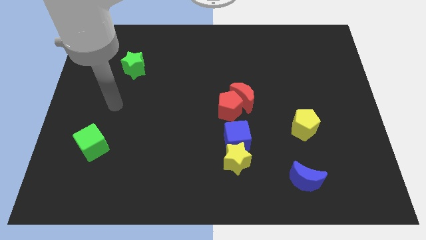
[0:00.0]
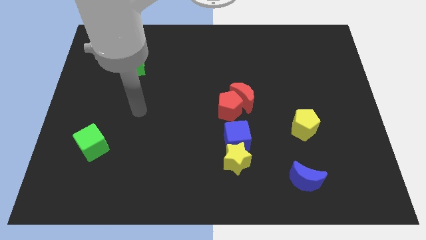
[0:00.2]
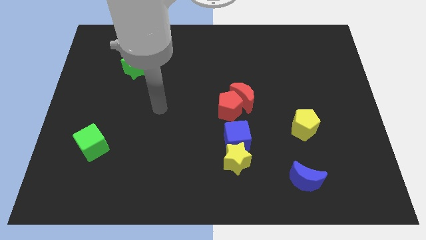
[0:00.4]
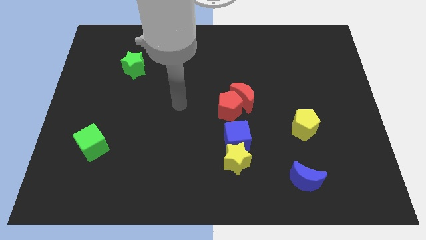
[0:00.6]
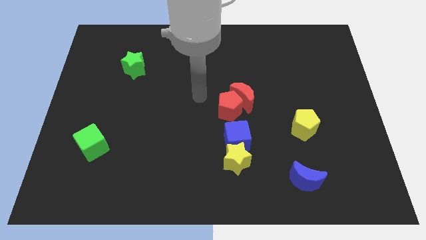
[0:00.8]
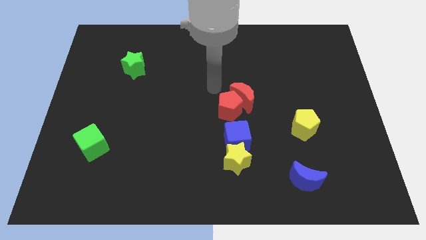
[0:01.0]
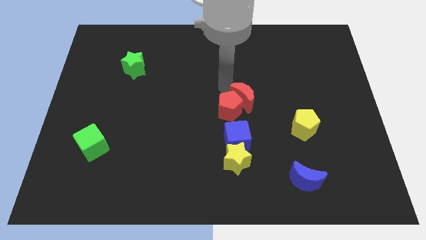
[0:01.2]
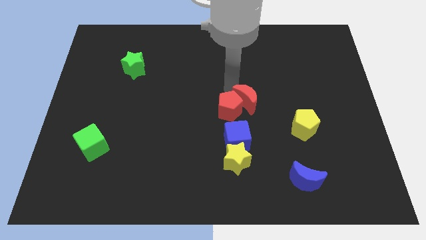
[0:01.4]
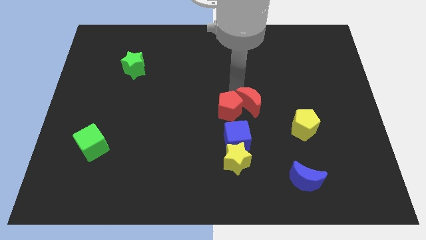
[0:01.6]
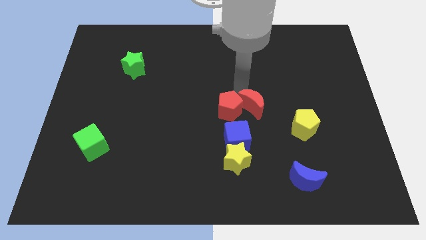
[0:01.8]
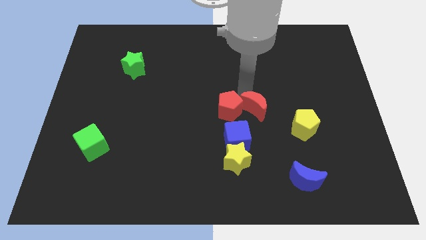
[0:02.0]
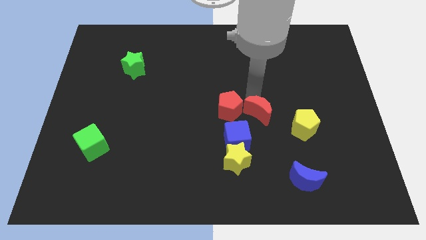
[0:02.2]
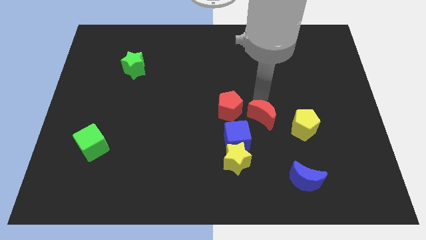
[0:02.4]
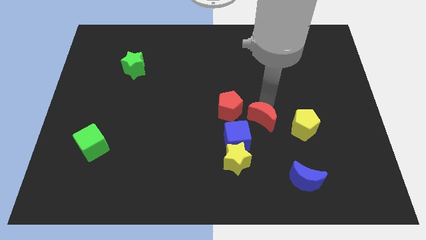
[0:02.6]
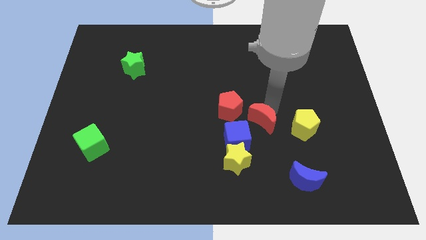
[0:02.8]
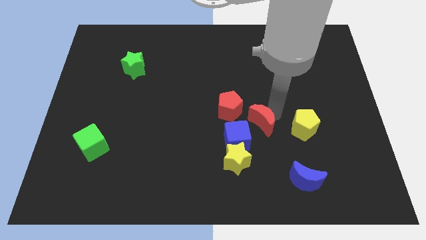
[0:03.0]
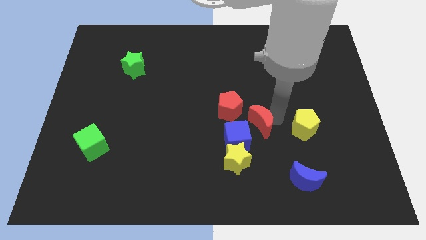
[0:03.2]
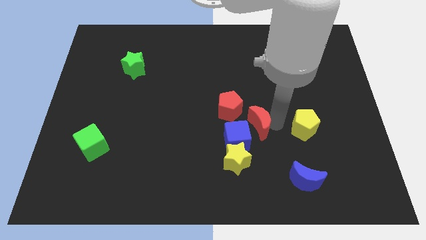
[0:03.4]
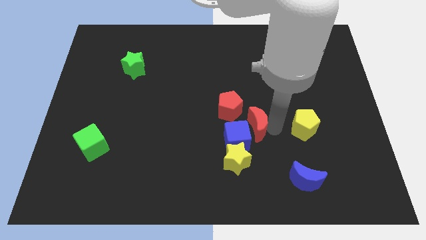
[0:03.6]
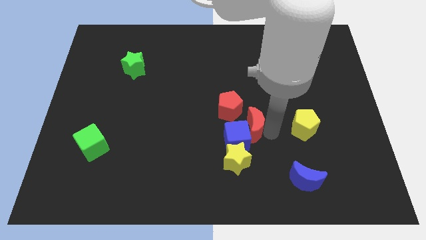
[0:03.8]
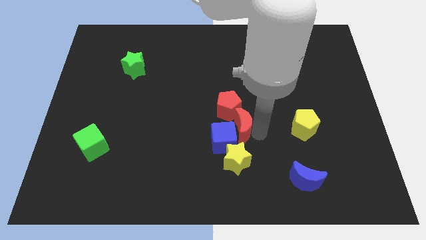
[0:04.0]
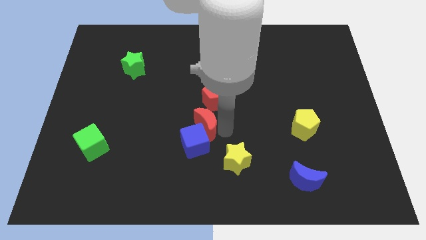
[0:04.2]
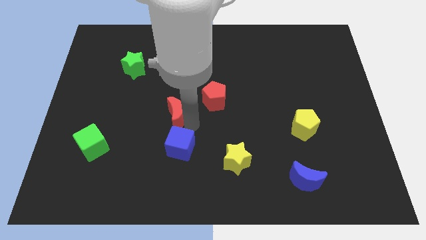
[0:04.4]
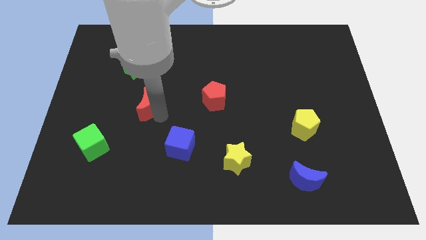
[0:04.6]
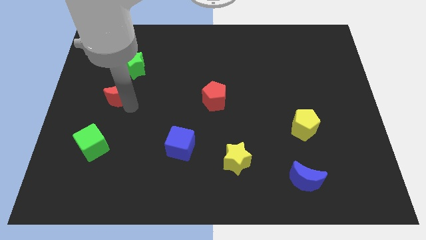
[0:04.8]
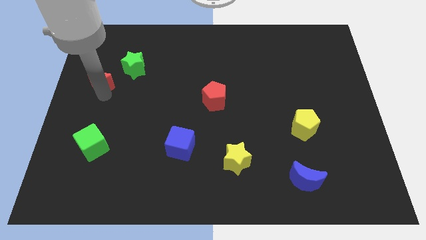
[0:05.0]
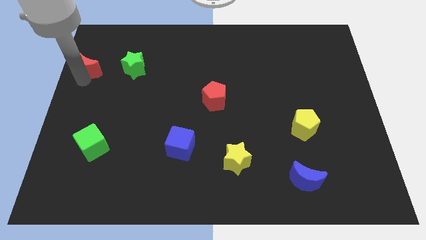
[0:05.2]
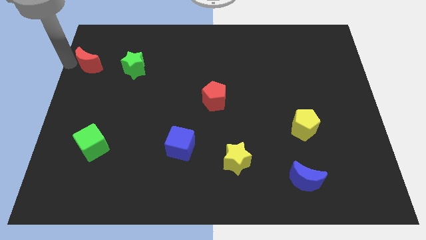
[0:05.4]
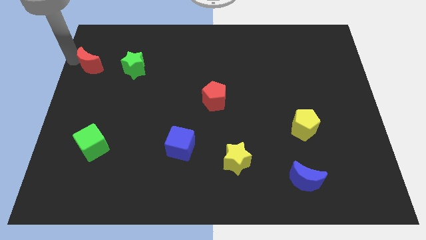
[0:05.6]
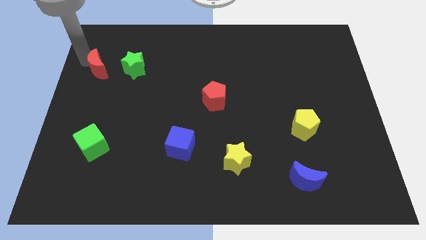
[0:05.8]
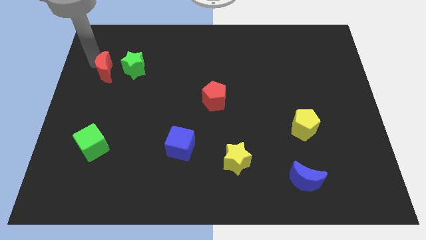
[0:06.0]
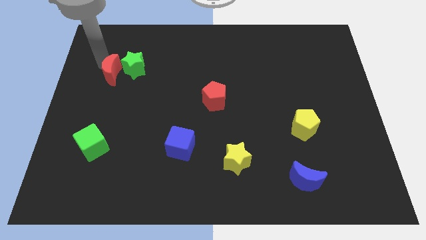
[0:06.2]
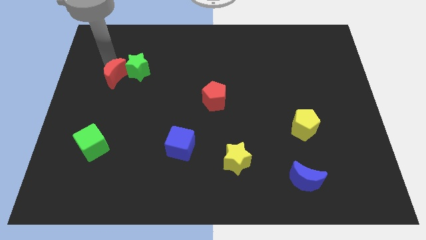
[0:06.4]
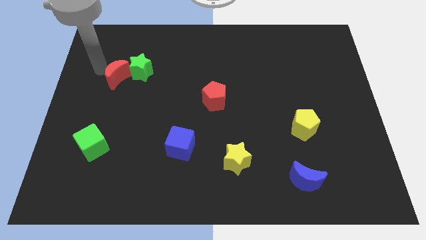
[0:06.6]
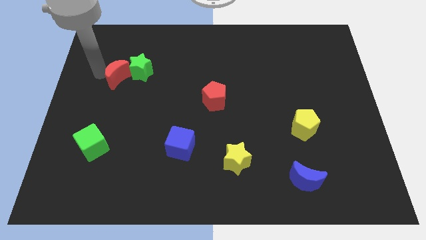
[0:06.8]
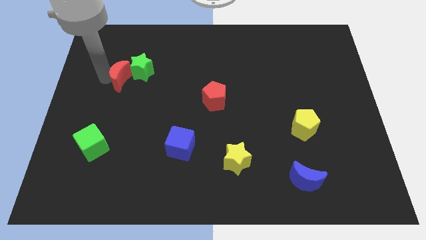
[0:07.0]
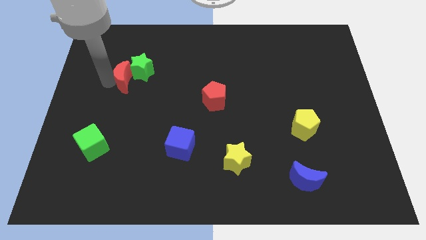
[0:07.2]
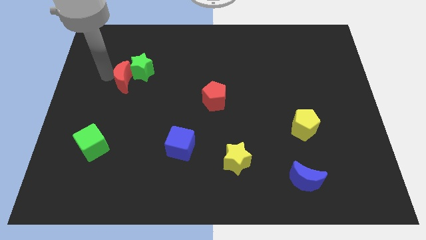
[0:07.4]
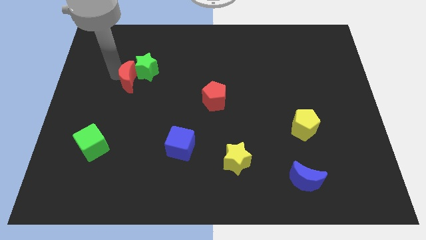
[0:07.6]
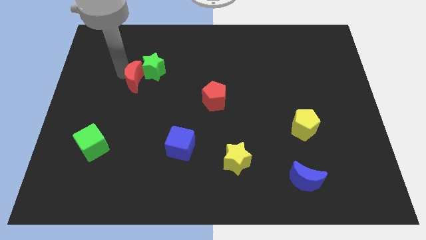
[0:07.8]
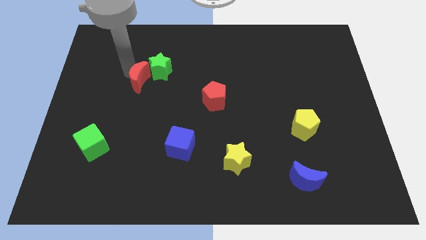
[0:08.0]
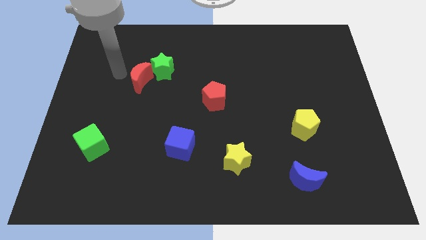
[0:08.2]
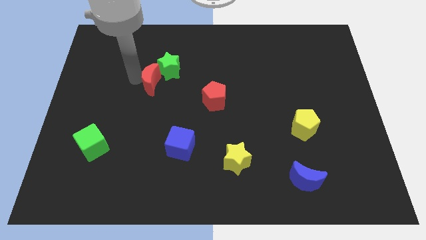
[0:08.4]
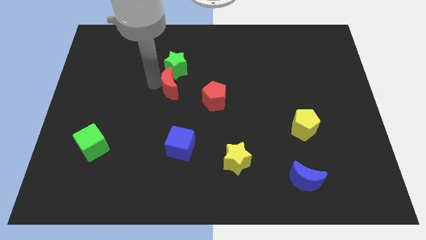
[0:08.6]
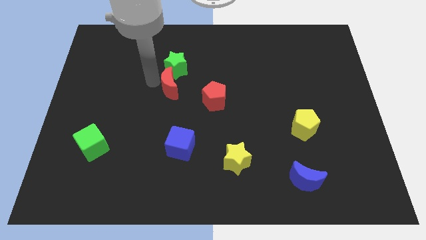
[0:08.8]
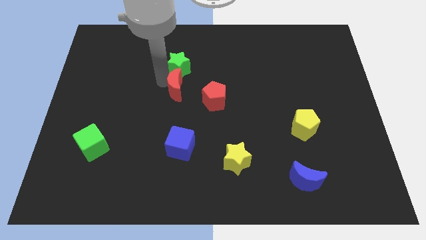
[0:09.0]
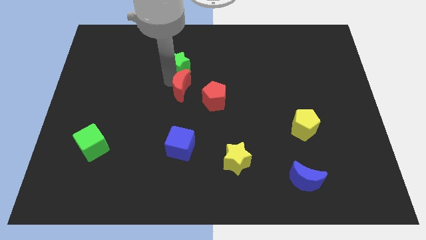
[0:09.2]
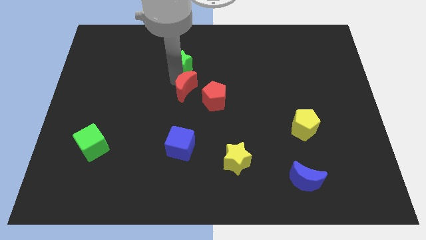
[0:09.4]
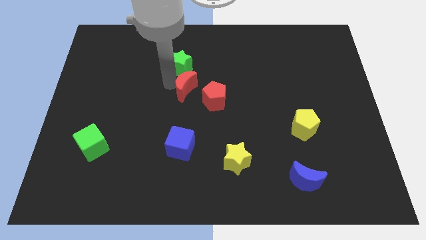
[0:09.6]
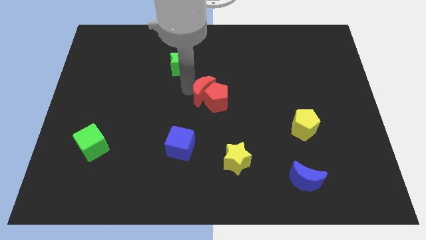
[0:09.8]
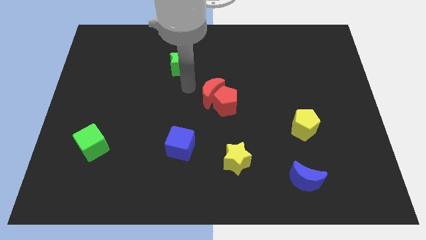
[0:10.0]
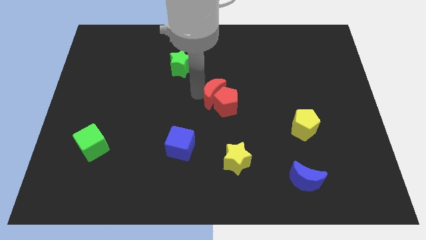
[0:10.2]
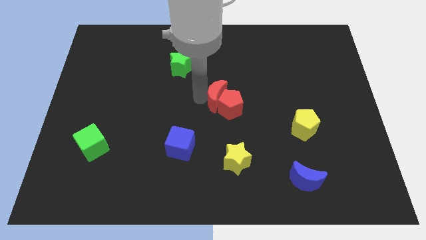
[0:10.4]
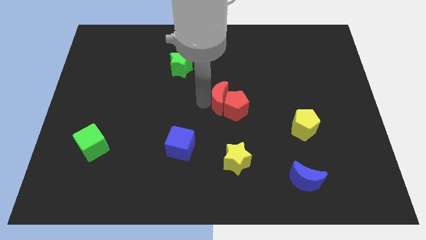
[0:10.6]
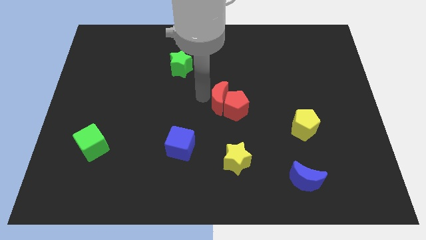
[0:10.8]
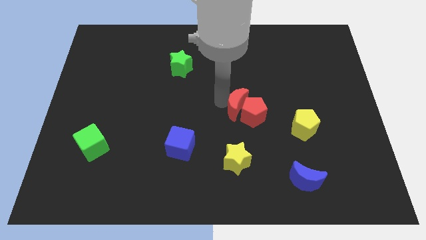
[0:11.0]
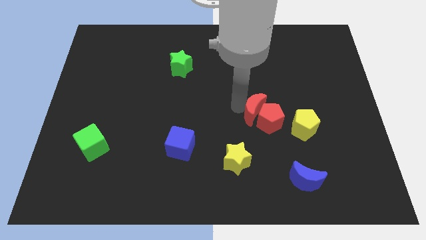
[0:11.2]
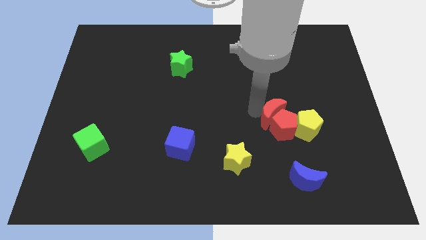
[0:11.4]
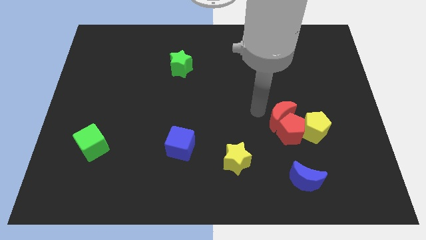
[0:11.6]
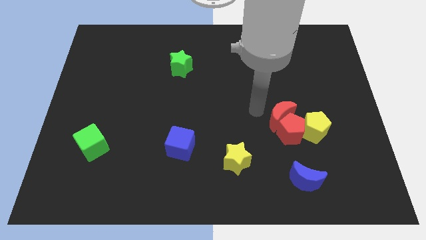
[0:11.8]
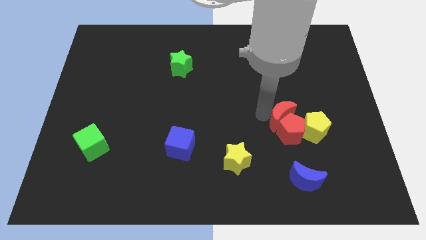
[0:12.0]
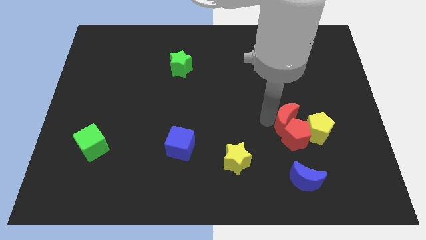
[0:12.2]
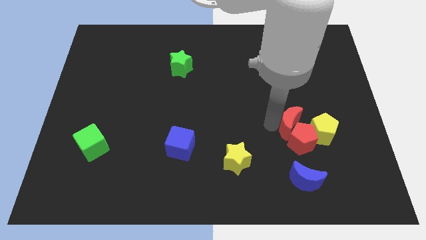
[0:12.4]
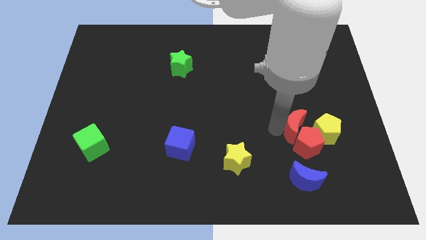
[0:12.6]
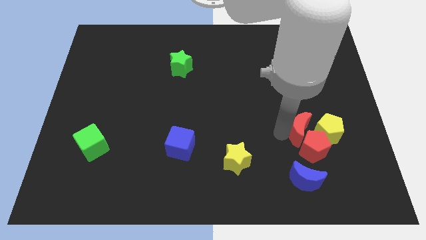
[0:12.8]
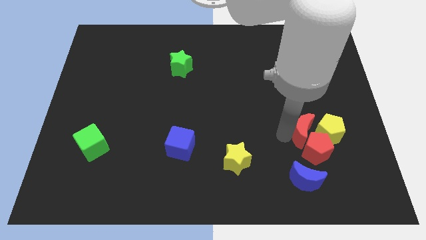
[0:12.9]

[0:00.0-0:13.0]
move the red moon next to the yellow pentagon

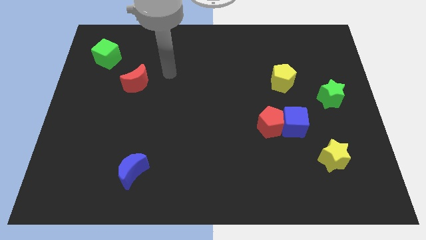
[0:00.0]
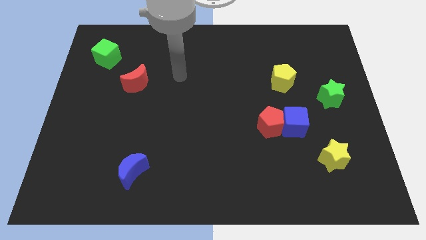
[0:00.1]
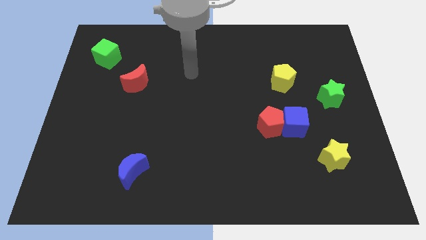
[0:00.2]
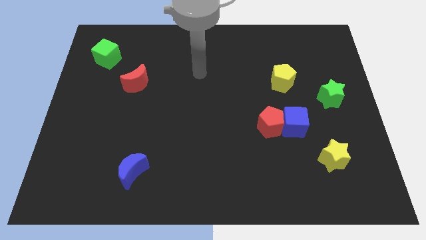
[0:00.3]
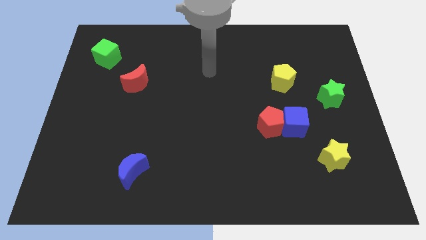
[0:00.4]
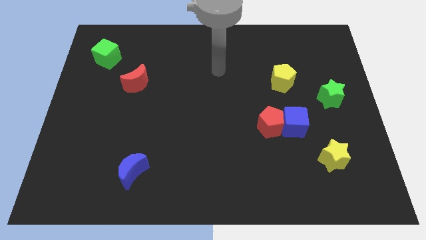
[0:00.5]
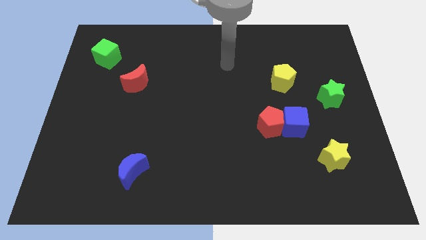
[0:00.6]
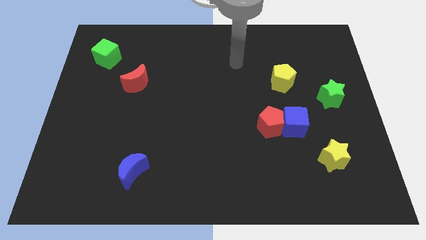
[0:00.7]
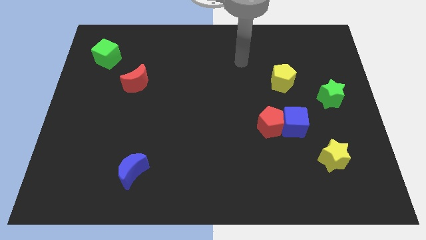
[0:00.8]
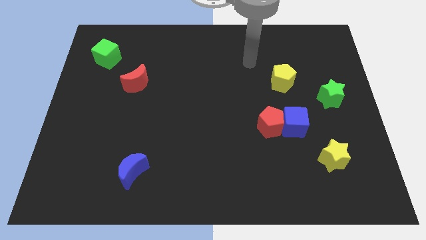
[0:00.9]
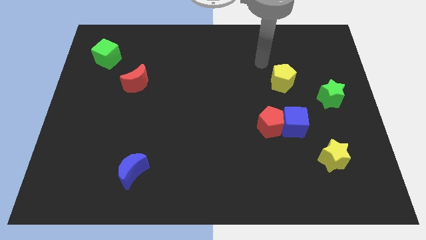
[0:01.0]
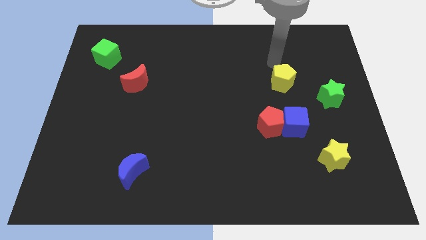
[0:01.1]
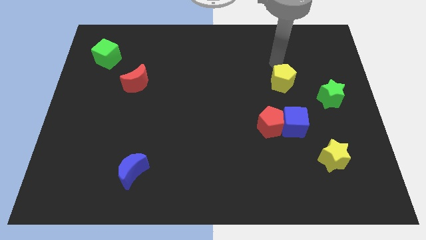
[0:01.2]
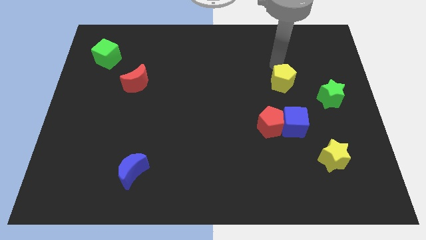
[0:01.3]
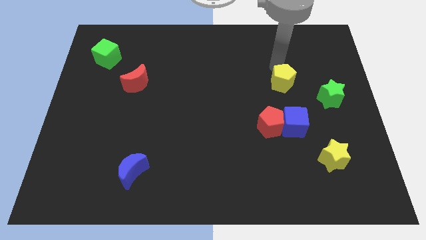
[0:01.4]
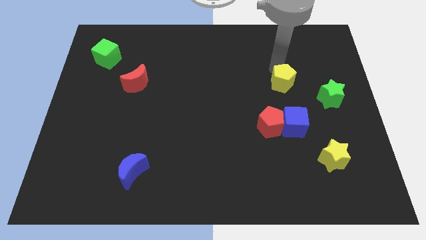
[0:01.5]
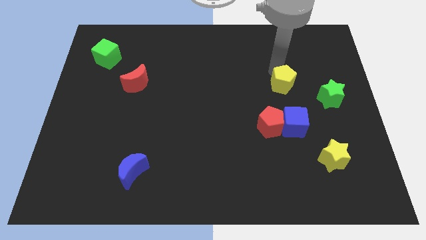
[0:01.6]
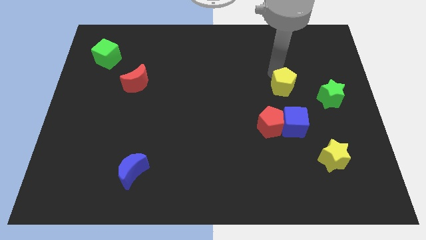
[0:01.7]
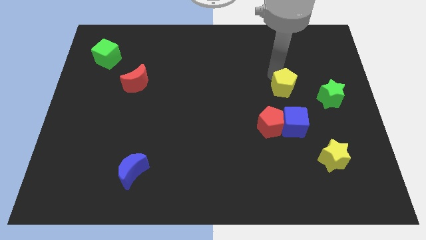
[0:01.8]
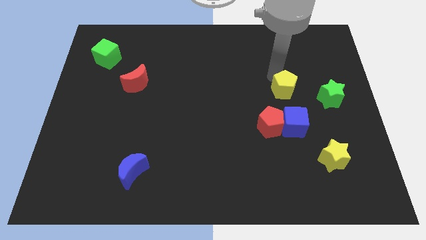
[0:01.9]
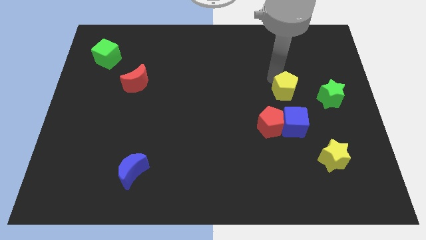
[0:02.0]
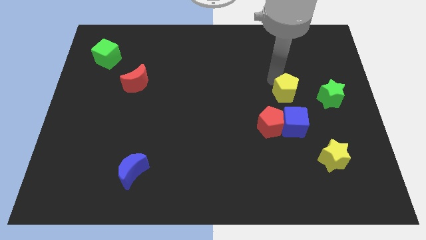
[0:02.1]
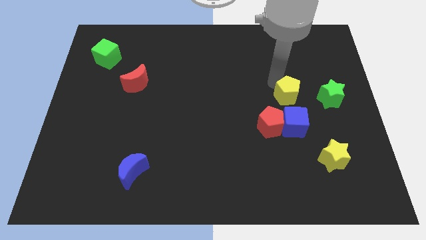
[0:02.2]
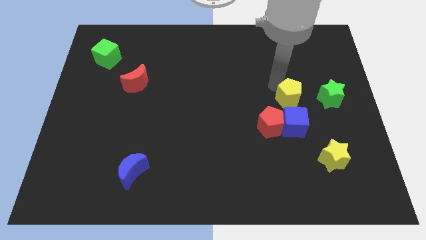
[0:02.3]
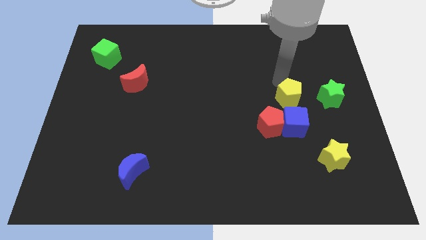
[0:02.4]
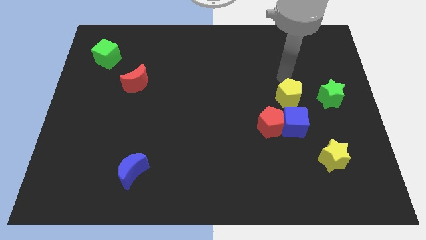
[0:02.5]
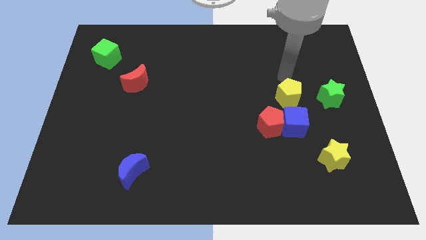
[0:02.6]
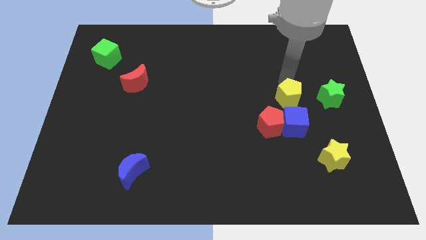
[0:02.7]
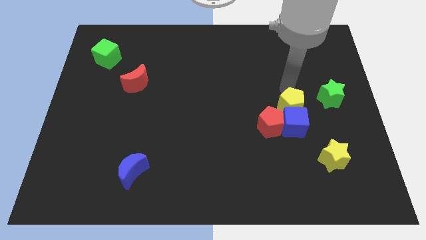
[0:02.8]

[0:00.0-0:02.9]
push the yellow pentagon close to the blue cube
